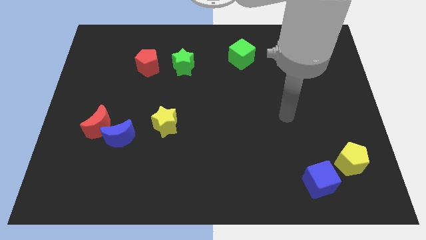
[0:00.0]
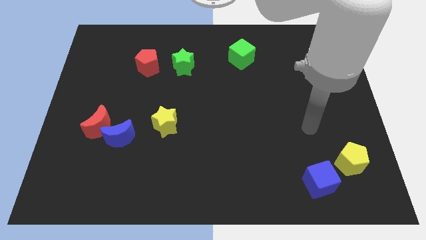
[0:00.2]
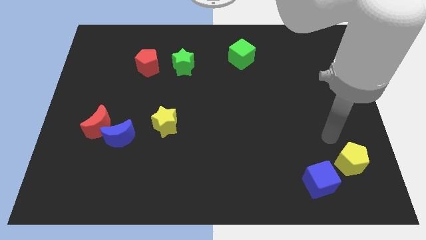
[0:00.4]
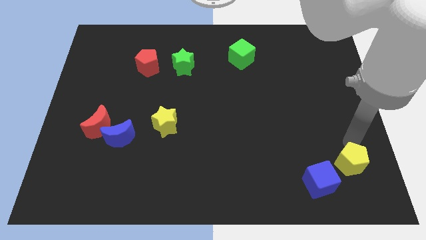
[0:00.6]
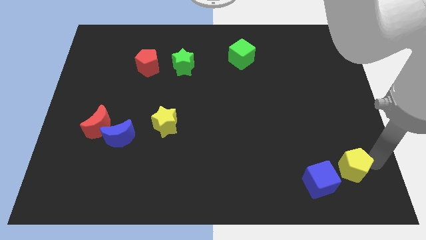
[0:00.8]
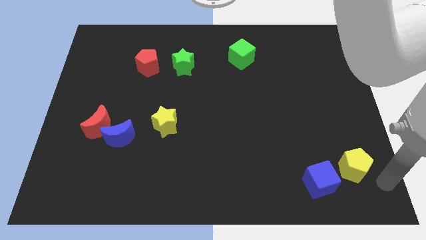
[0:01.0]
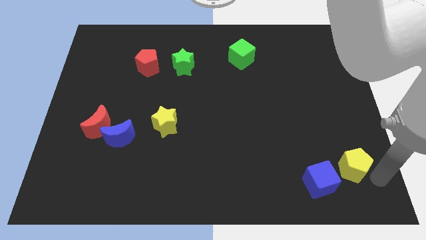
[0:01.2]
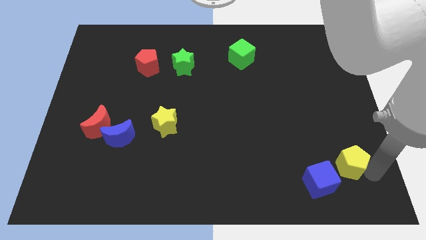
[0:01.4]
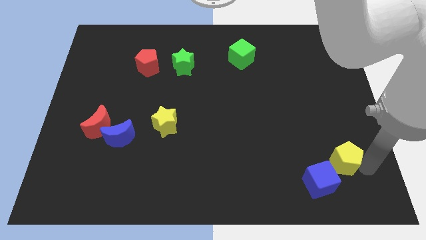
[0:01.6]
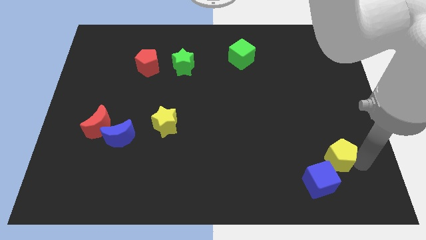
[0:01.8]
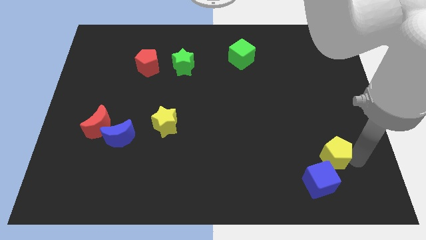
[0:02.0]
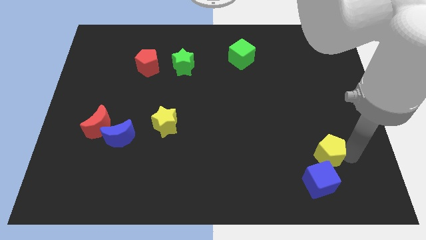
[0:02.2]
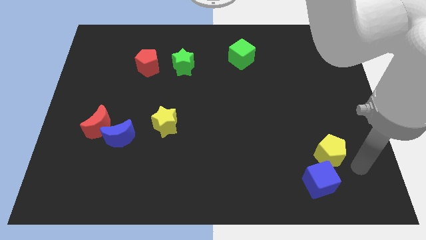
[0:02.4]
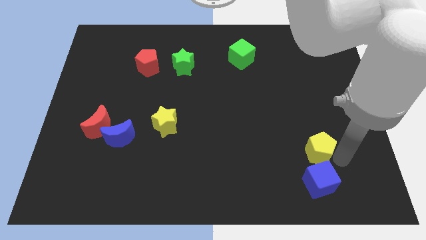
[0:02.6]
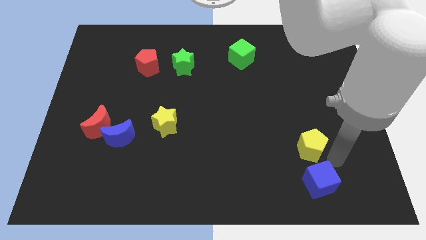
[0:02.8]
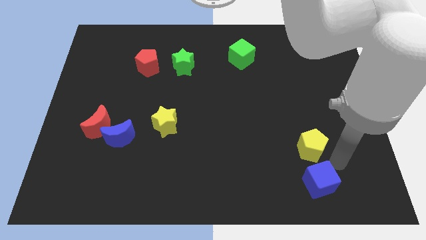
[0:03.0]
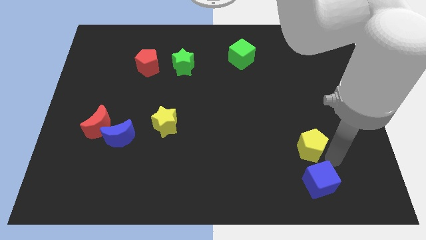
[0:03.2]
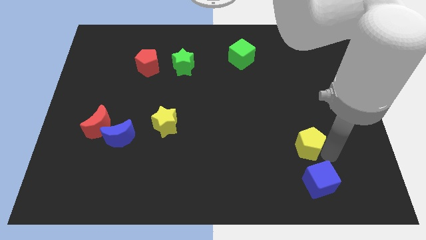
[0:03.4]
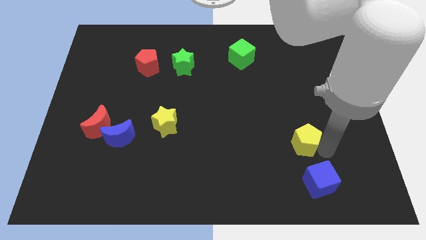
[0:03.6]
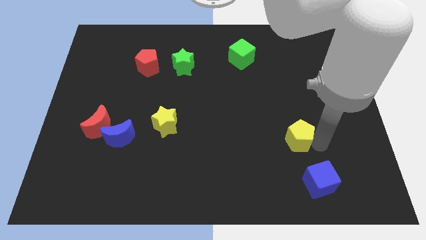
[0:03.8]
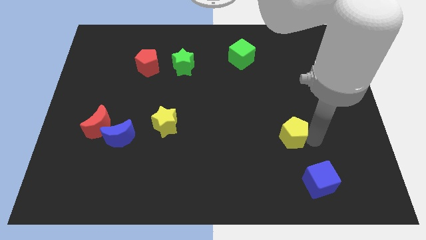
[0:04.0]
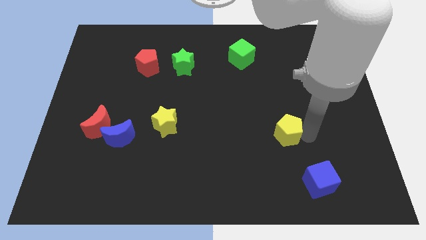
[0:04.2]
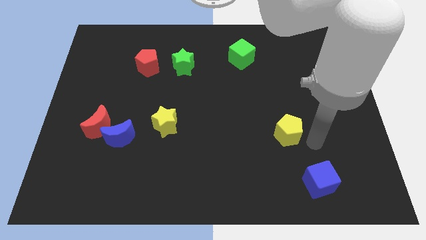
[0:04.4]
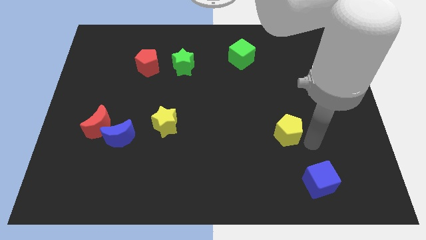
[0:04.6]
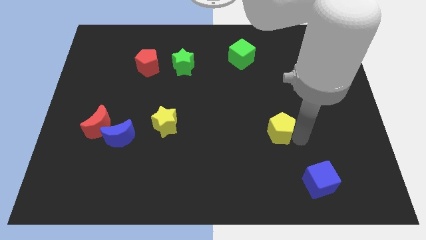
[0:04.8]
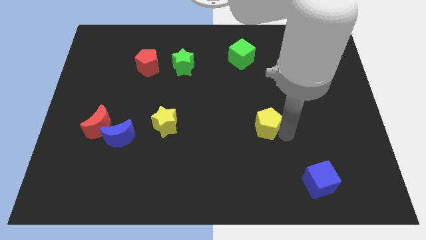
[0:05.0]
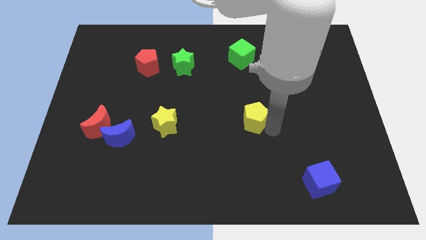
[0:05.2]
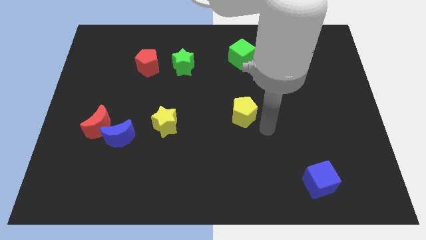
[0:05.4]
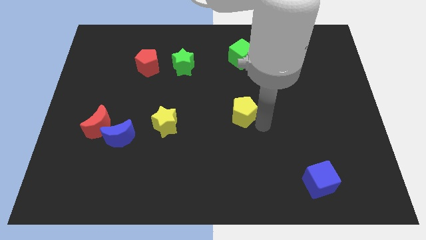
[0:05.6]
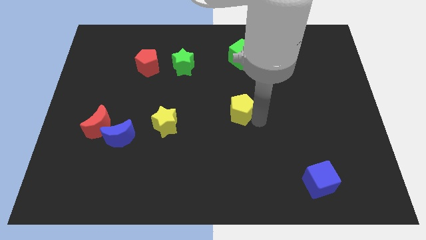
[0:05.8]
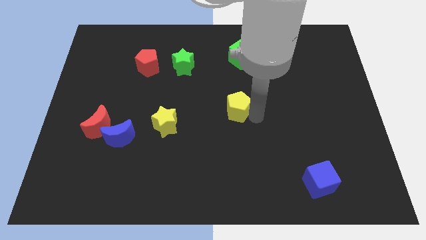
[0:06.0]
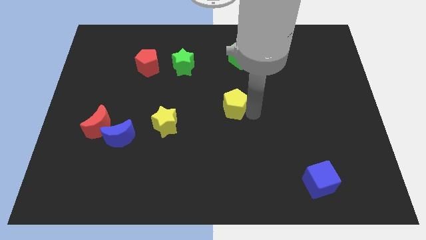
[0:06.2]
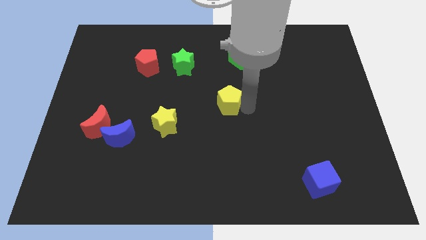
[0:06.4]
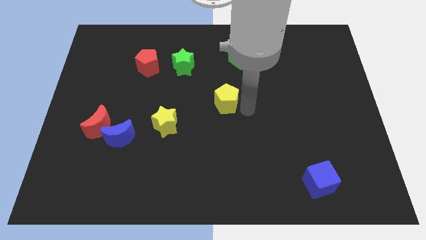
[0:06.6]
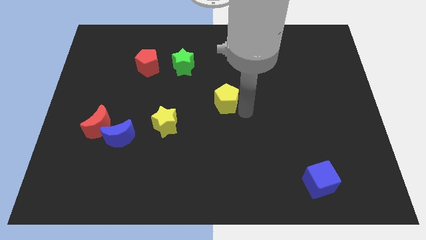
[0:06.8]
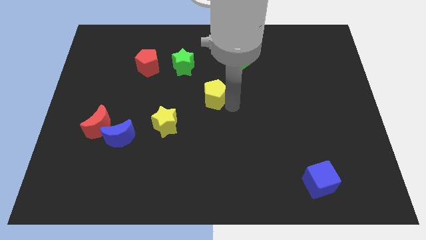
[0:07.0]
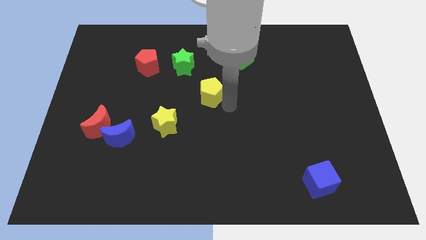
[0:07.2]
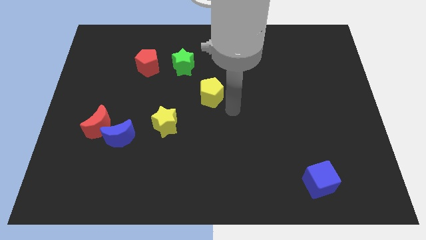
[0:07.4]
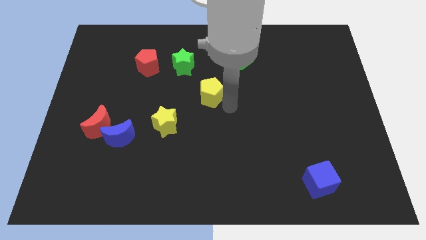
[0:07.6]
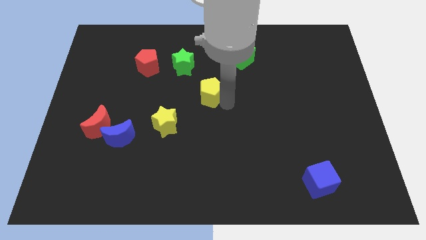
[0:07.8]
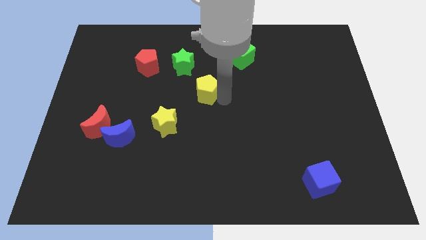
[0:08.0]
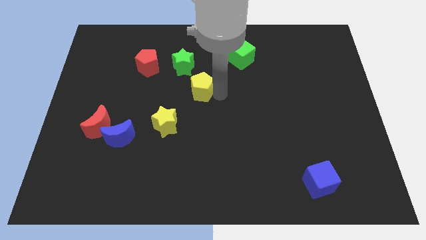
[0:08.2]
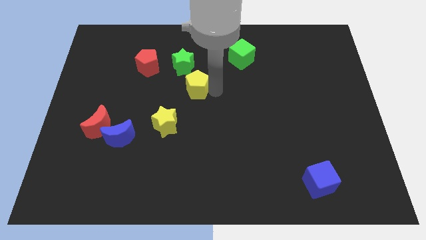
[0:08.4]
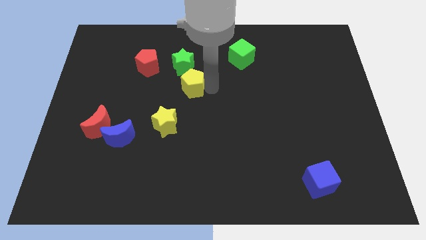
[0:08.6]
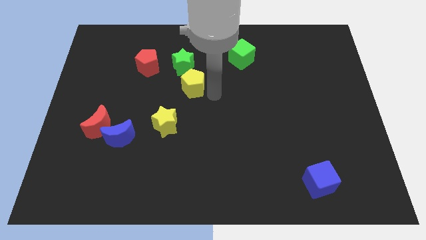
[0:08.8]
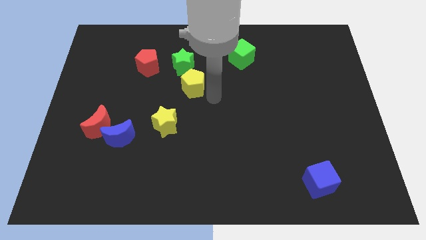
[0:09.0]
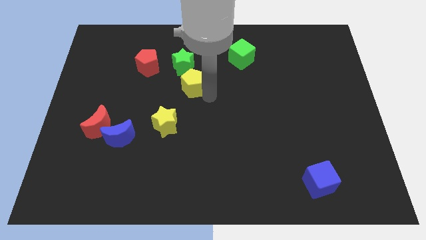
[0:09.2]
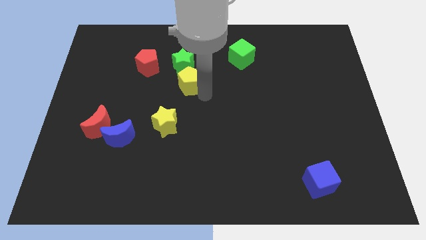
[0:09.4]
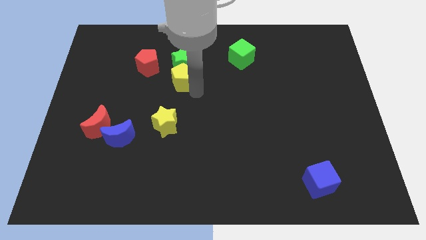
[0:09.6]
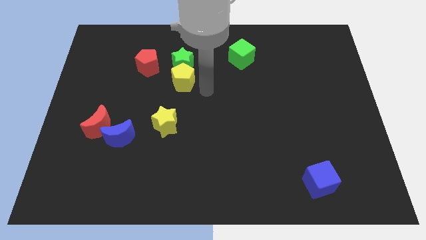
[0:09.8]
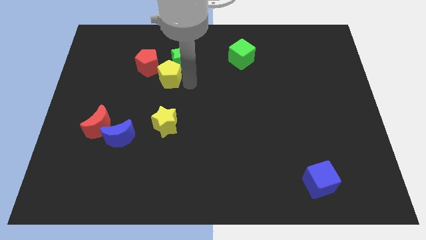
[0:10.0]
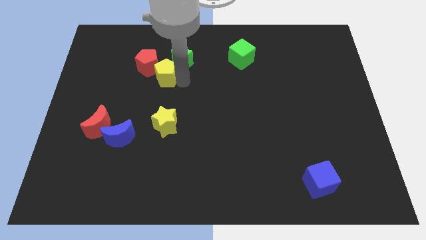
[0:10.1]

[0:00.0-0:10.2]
slide the yellow pentagon next to the red pentagon

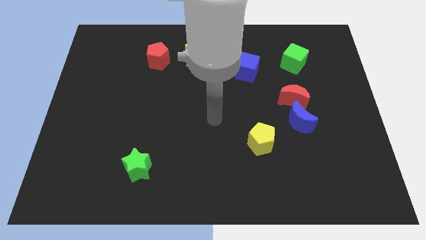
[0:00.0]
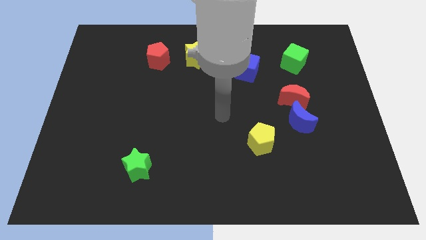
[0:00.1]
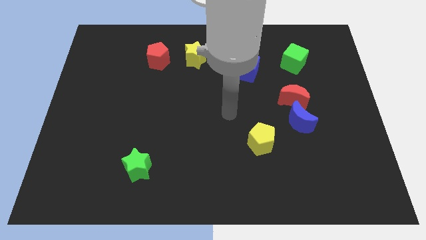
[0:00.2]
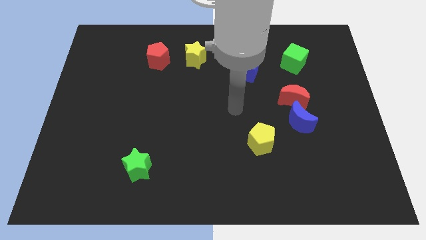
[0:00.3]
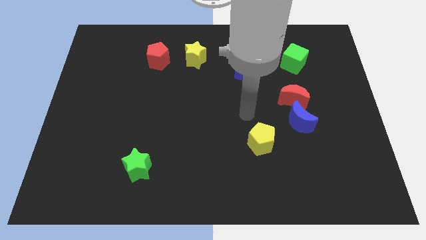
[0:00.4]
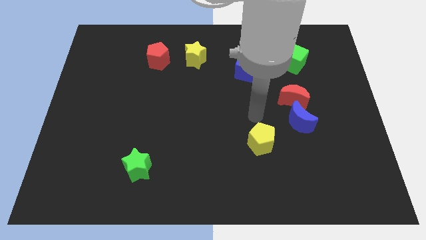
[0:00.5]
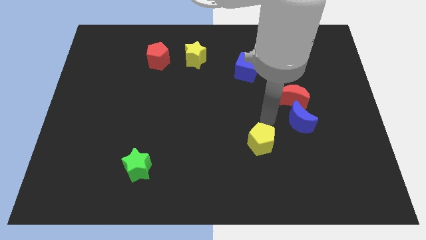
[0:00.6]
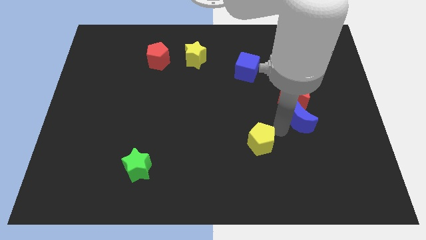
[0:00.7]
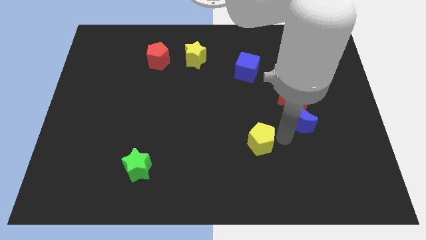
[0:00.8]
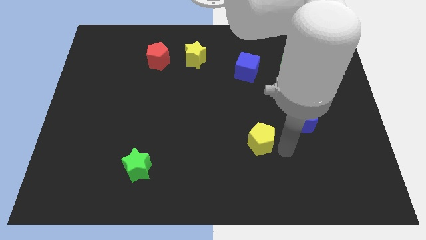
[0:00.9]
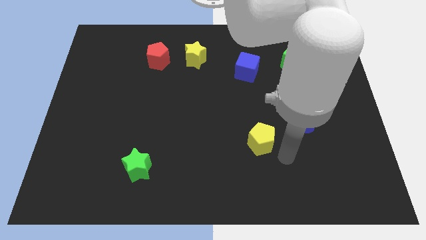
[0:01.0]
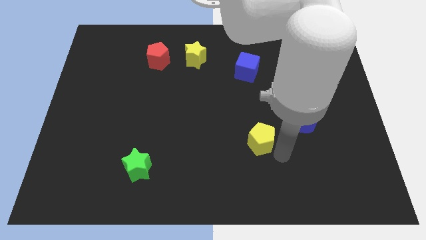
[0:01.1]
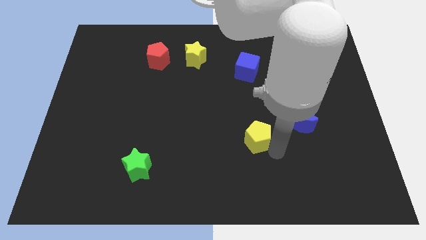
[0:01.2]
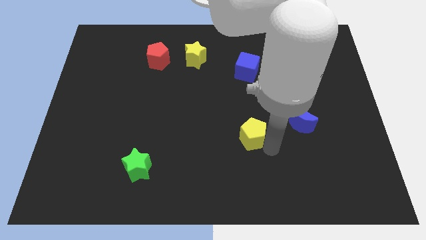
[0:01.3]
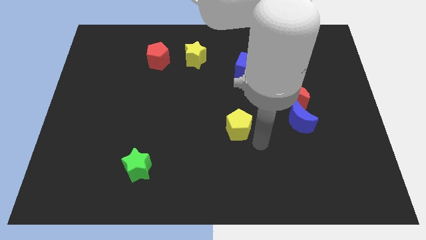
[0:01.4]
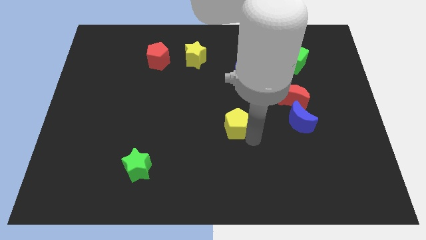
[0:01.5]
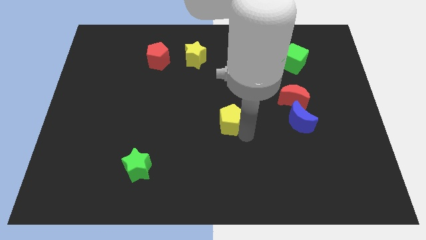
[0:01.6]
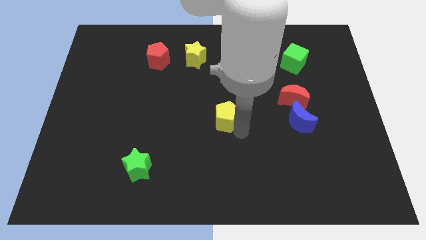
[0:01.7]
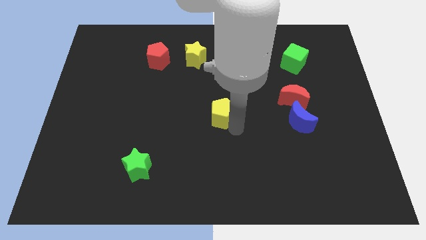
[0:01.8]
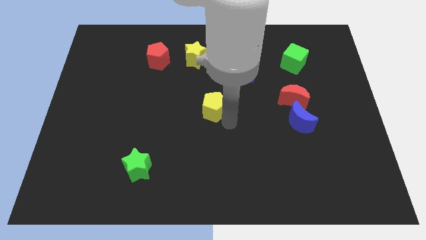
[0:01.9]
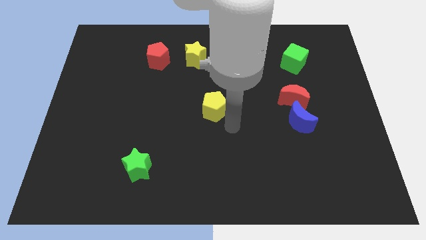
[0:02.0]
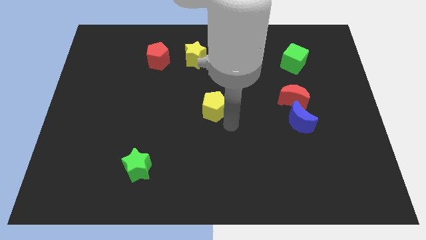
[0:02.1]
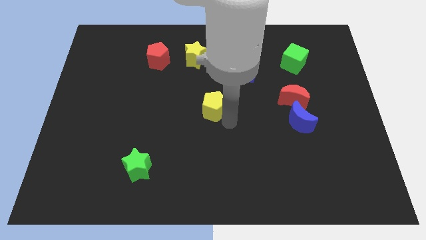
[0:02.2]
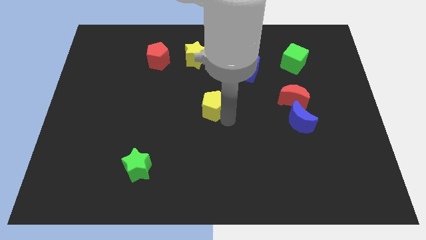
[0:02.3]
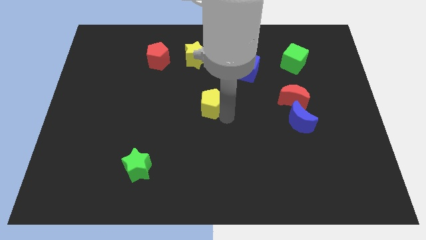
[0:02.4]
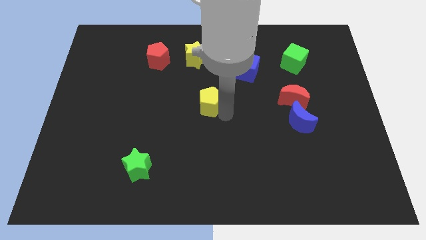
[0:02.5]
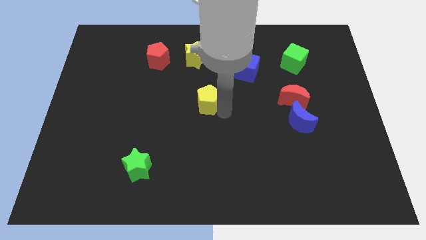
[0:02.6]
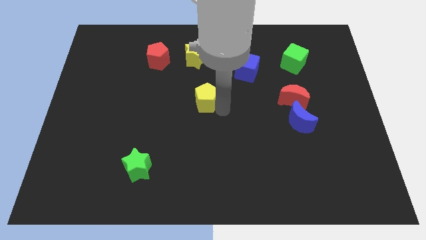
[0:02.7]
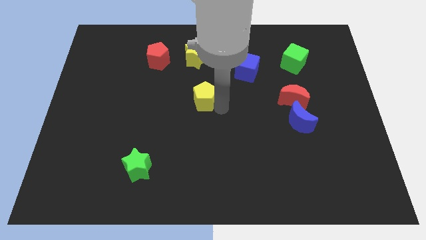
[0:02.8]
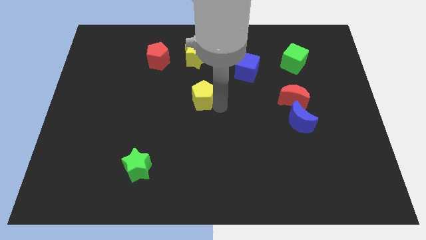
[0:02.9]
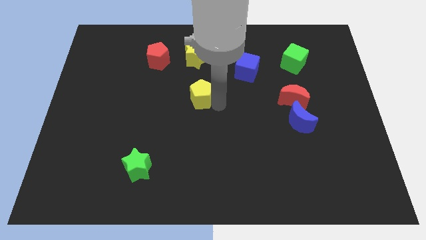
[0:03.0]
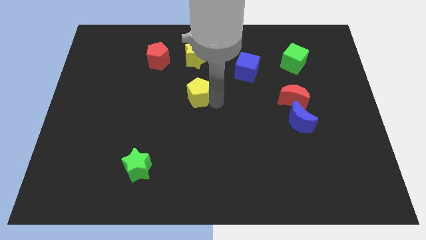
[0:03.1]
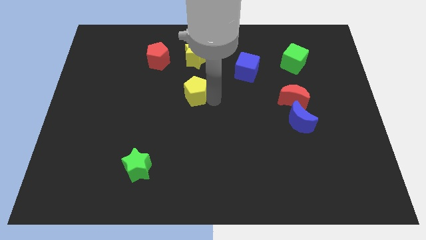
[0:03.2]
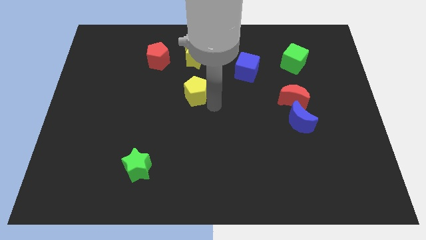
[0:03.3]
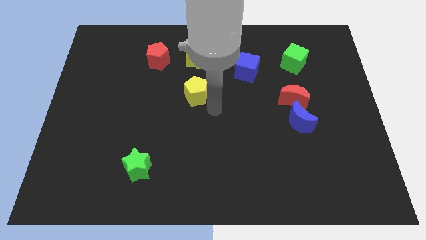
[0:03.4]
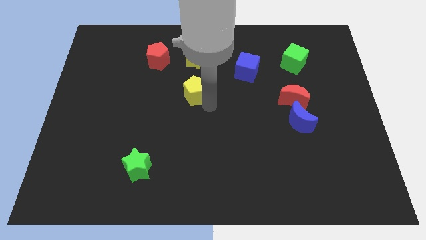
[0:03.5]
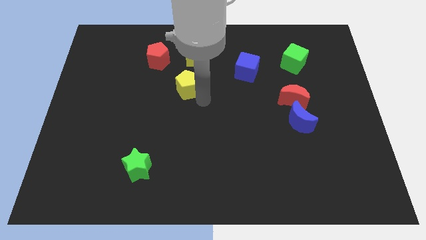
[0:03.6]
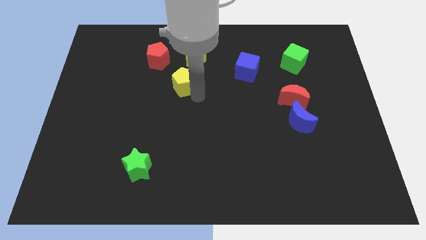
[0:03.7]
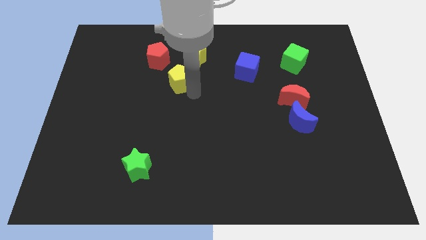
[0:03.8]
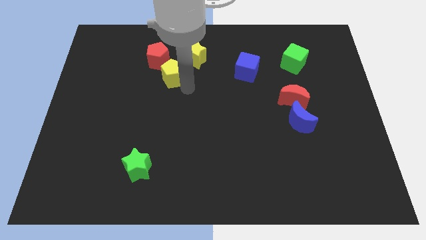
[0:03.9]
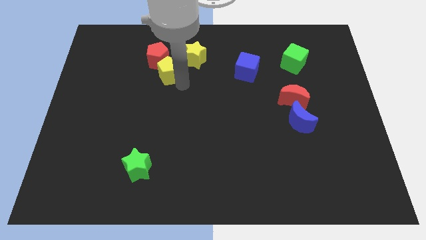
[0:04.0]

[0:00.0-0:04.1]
push the yellow pentagon to the red pentagon
